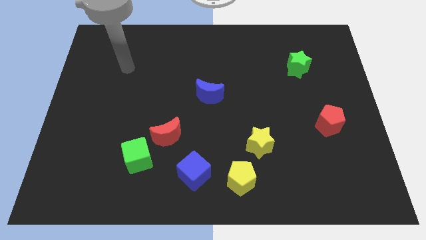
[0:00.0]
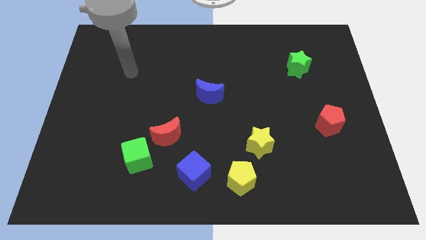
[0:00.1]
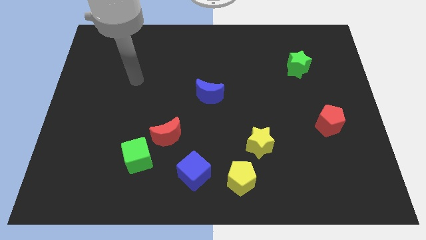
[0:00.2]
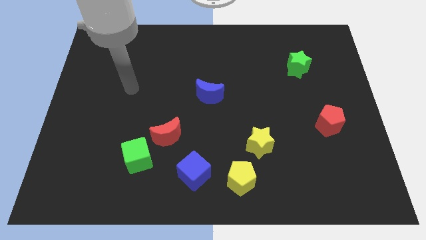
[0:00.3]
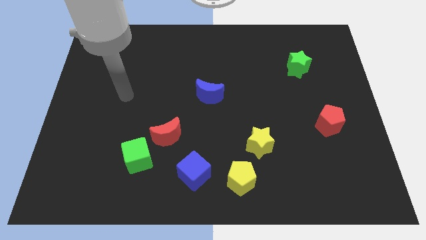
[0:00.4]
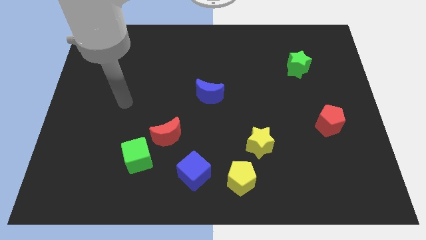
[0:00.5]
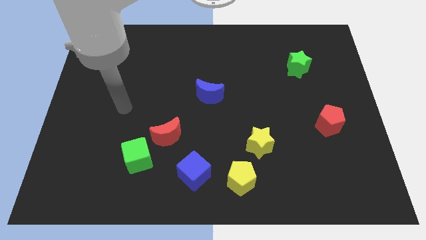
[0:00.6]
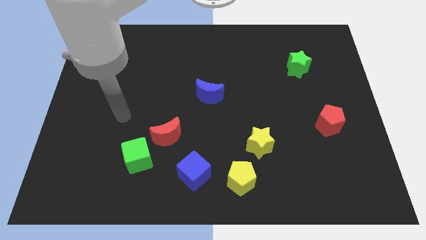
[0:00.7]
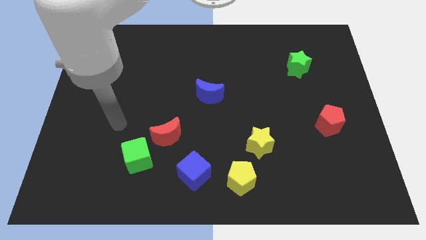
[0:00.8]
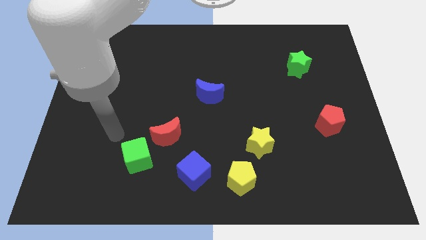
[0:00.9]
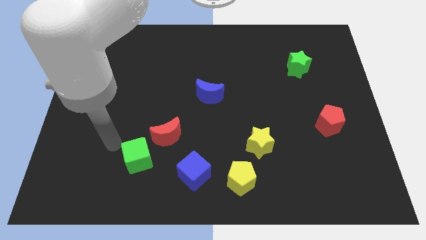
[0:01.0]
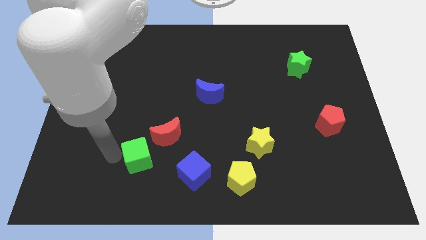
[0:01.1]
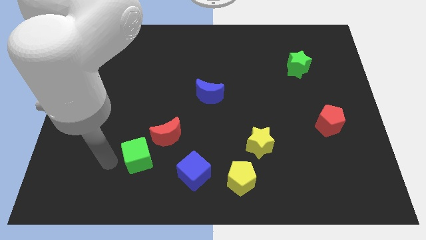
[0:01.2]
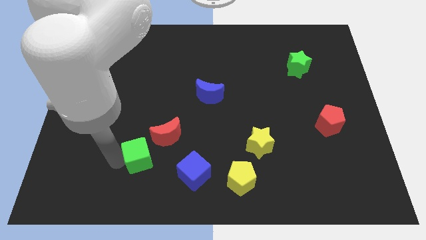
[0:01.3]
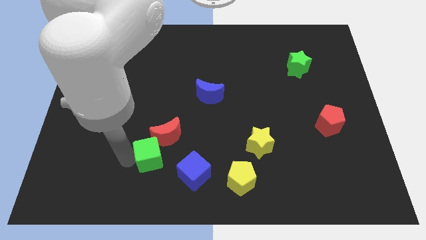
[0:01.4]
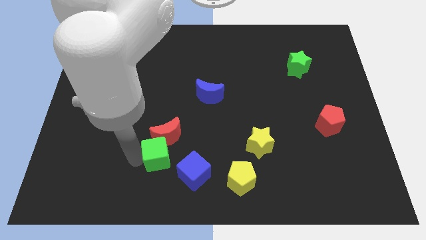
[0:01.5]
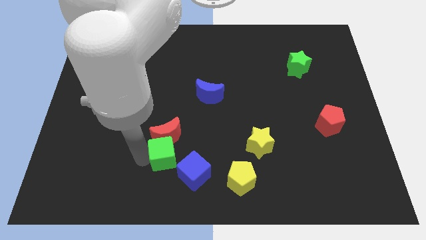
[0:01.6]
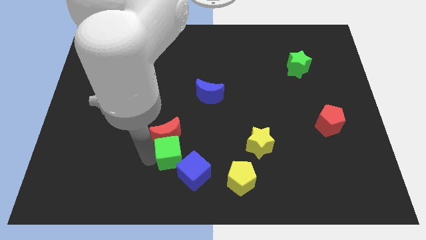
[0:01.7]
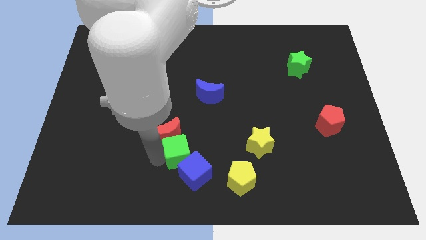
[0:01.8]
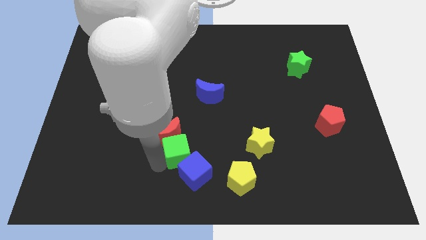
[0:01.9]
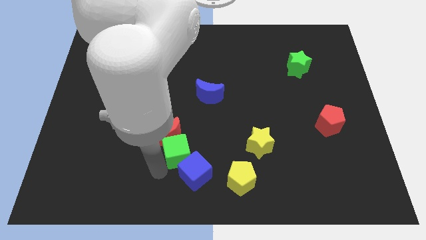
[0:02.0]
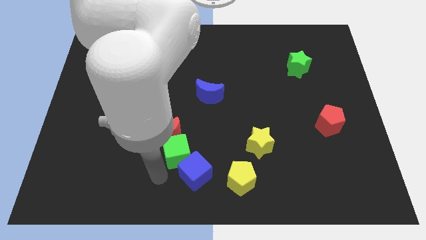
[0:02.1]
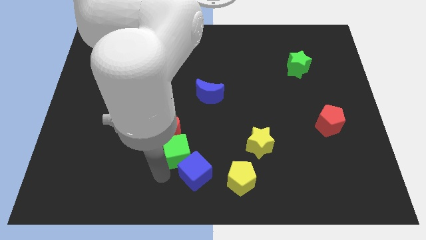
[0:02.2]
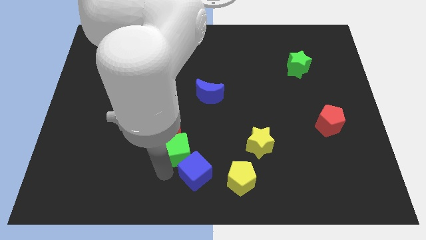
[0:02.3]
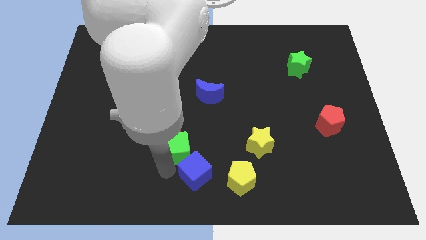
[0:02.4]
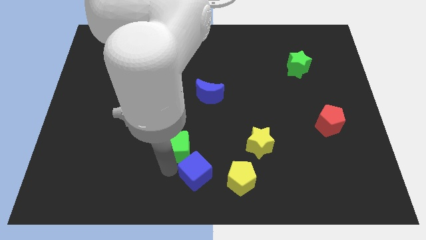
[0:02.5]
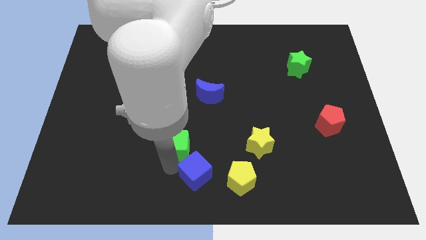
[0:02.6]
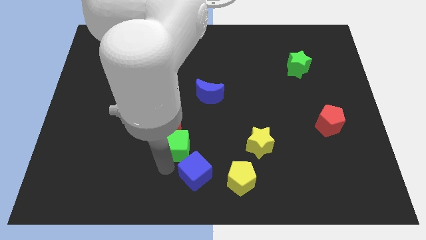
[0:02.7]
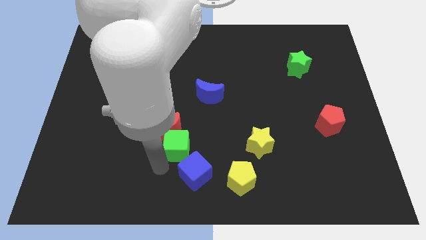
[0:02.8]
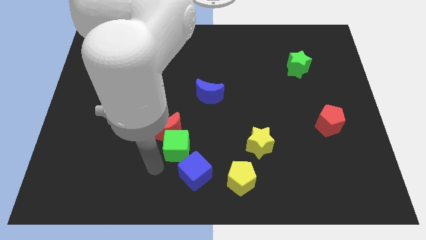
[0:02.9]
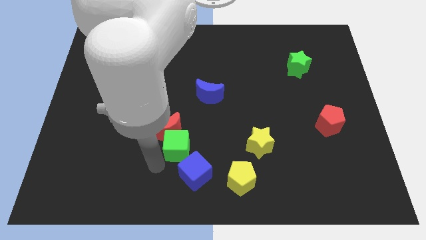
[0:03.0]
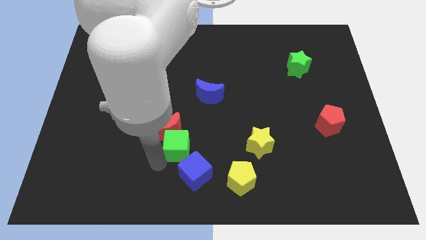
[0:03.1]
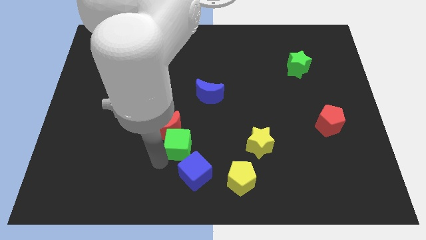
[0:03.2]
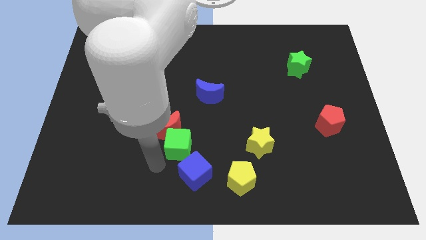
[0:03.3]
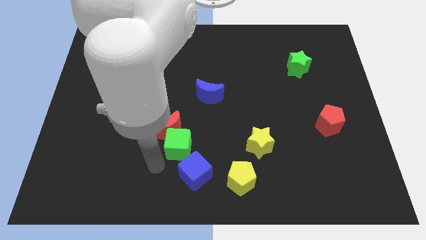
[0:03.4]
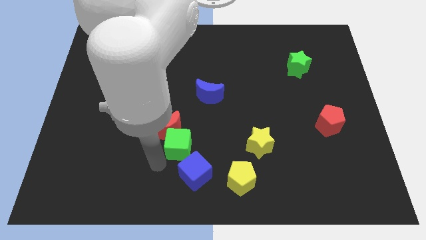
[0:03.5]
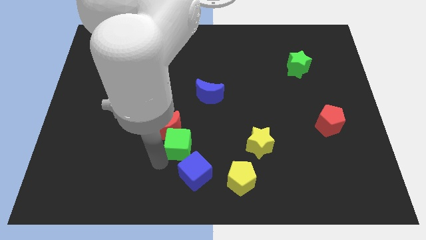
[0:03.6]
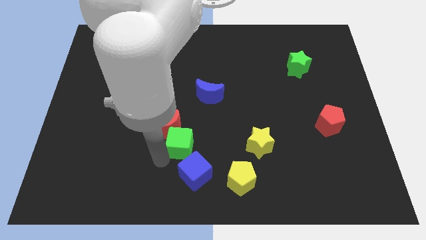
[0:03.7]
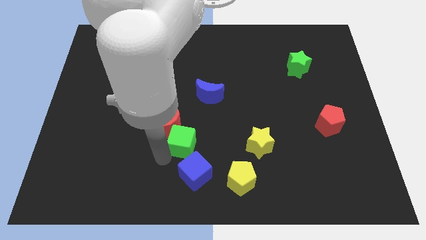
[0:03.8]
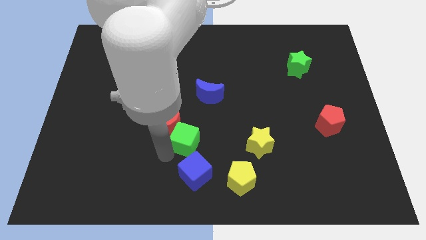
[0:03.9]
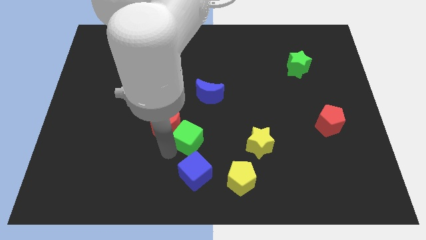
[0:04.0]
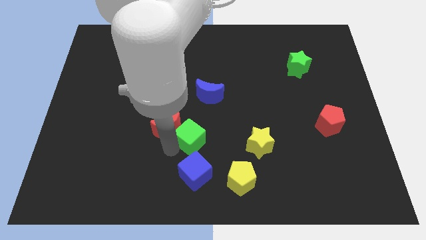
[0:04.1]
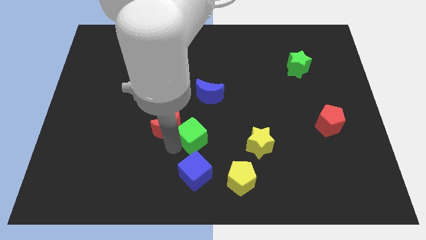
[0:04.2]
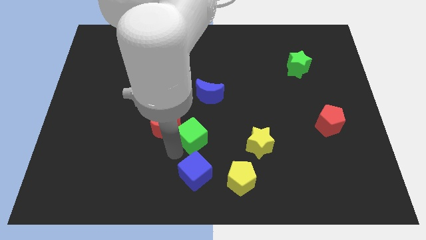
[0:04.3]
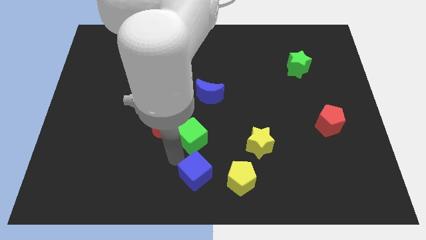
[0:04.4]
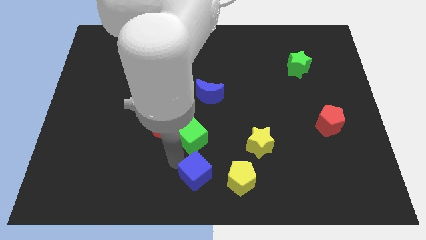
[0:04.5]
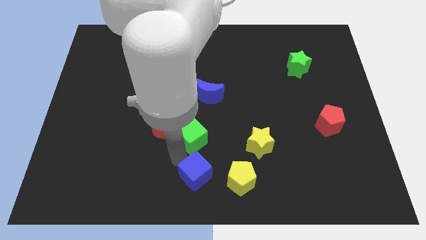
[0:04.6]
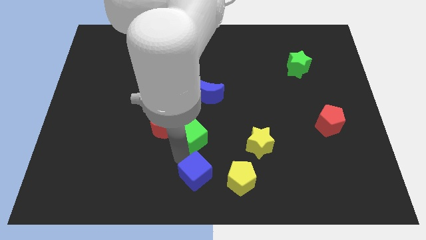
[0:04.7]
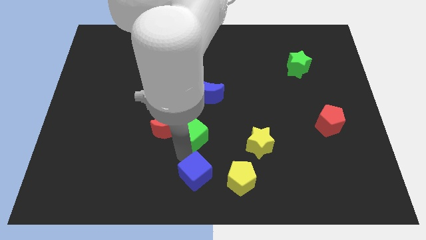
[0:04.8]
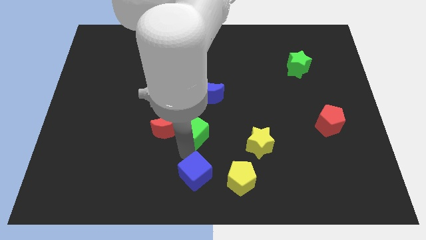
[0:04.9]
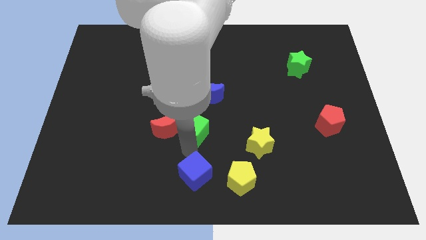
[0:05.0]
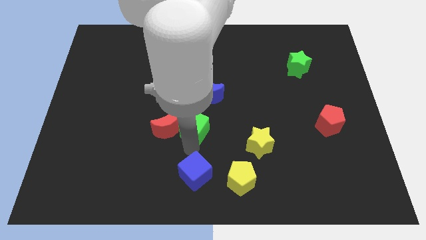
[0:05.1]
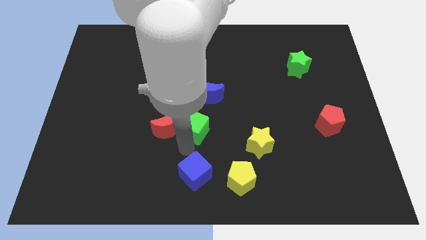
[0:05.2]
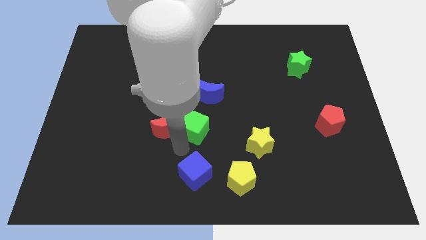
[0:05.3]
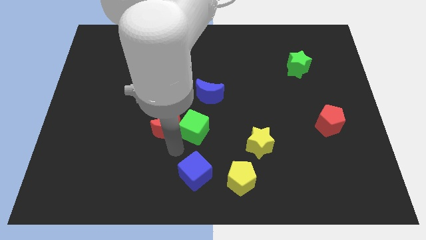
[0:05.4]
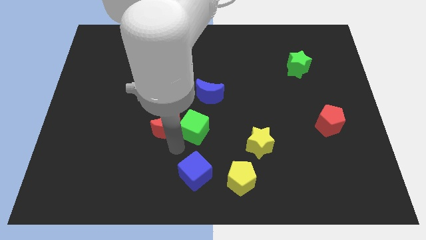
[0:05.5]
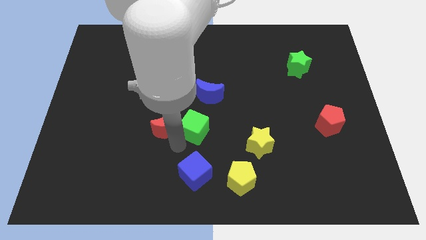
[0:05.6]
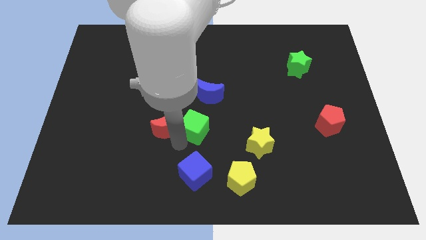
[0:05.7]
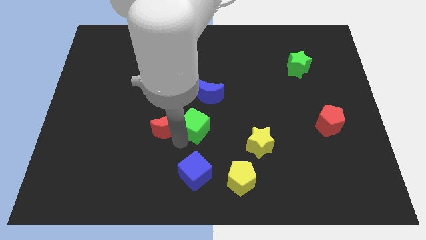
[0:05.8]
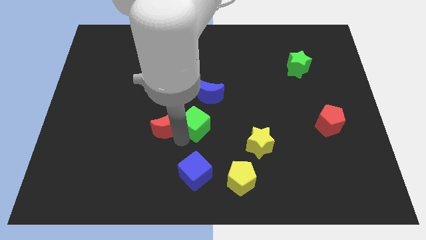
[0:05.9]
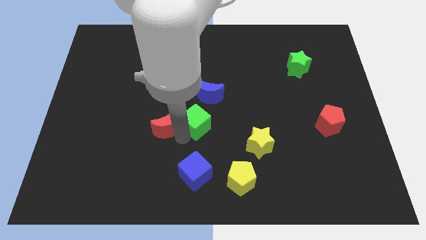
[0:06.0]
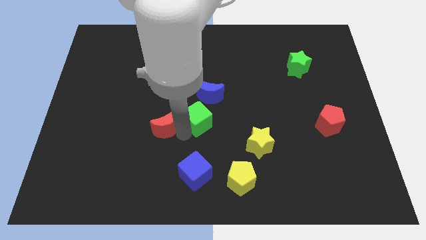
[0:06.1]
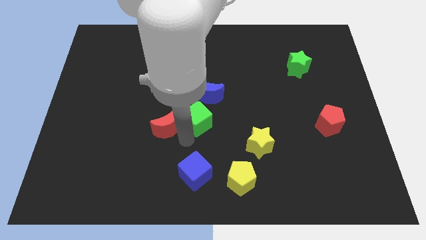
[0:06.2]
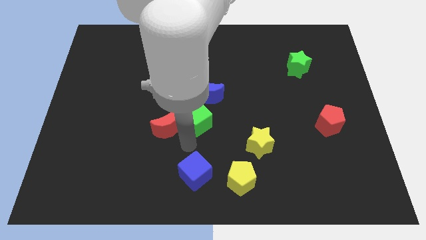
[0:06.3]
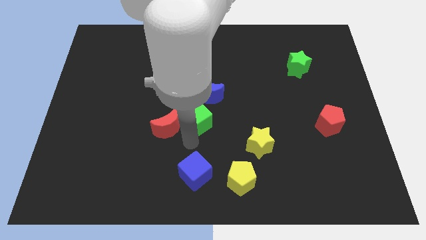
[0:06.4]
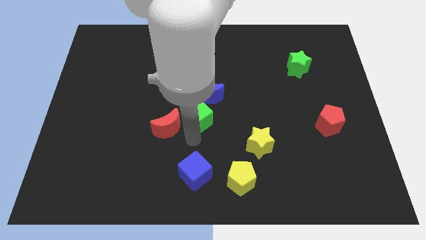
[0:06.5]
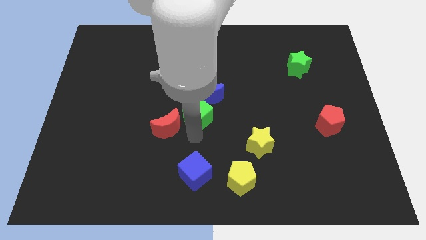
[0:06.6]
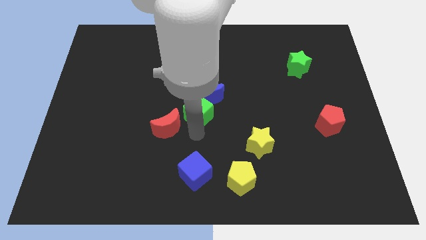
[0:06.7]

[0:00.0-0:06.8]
push the green cube to the blue moon
